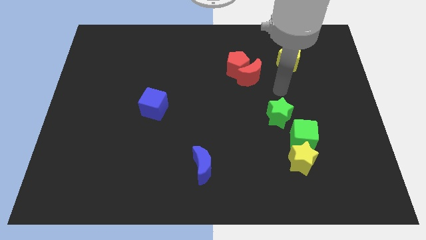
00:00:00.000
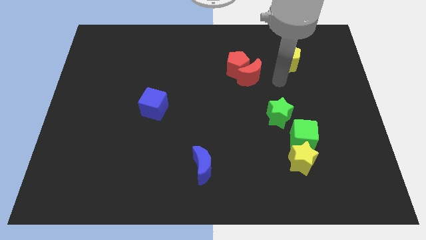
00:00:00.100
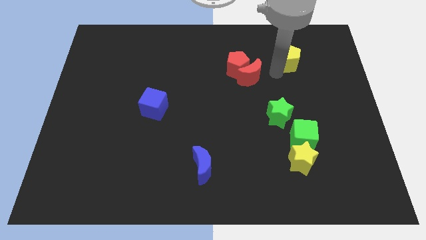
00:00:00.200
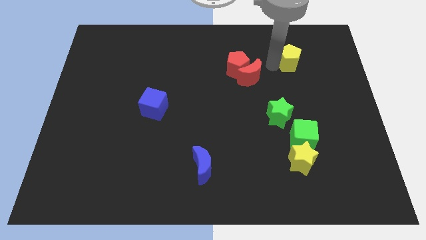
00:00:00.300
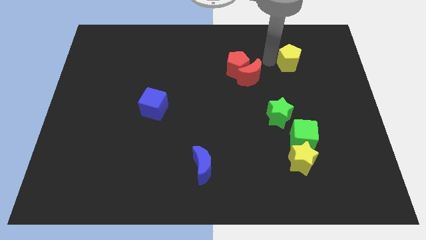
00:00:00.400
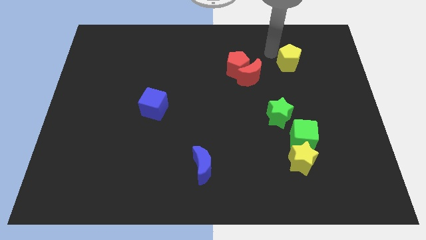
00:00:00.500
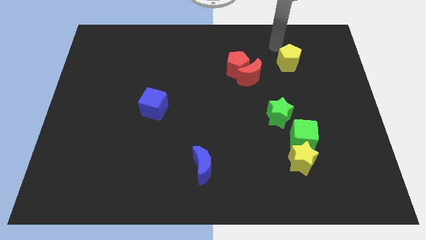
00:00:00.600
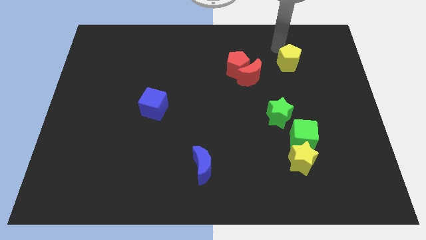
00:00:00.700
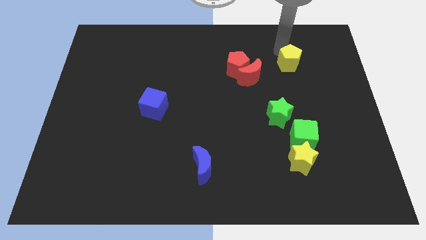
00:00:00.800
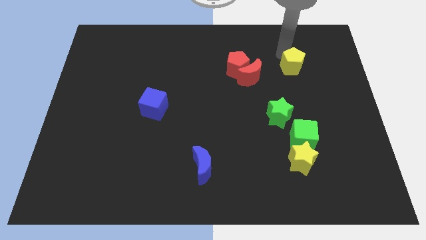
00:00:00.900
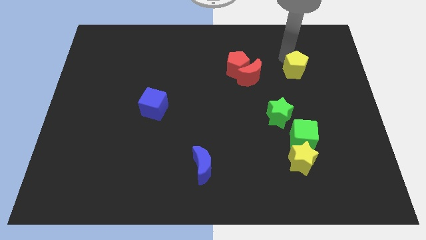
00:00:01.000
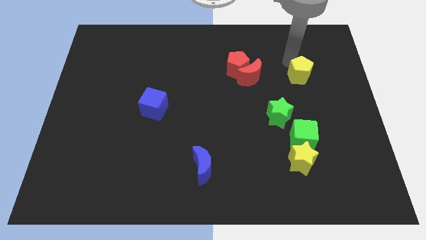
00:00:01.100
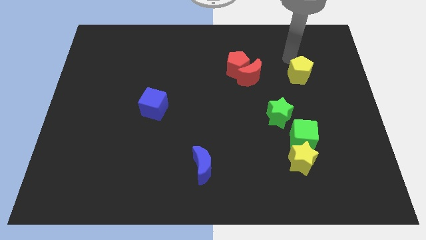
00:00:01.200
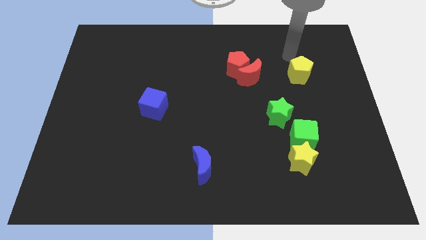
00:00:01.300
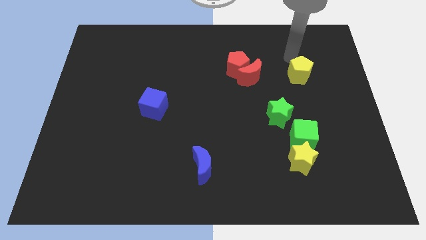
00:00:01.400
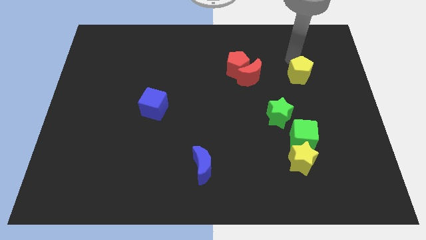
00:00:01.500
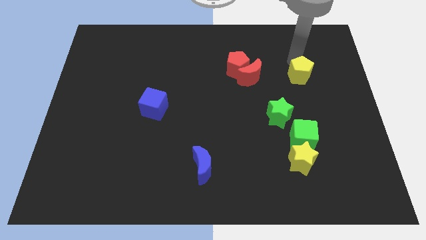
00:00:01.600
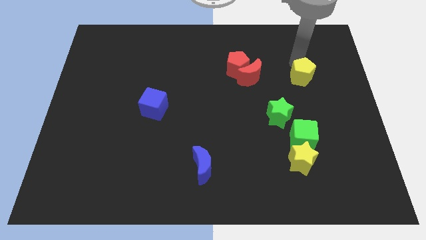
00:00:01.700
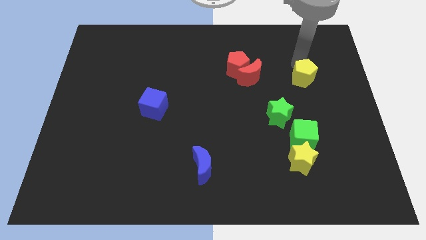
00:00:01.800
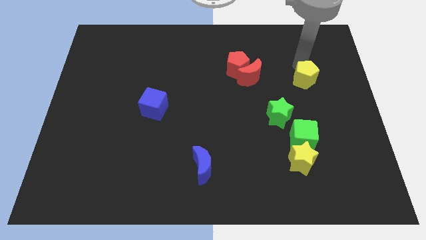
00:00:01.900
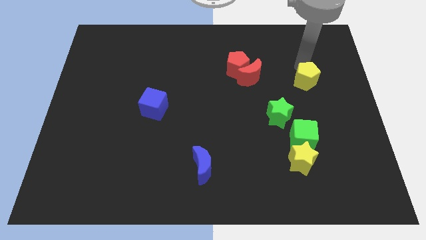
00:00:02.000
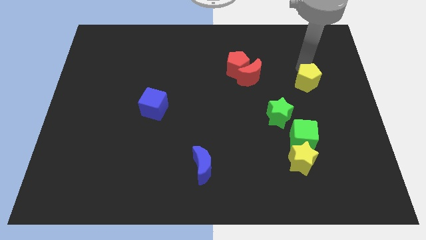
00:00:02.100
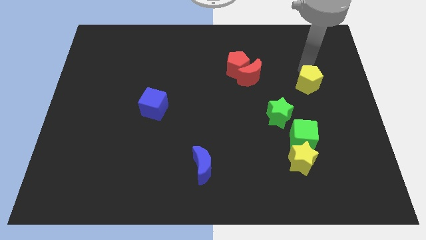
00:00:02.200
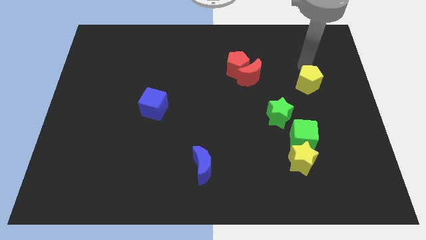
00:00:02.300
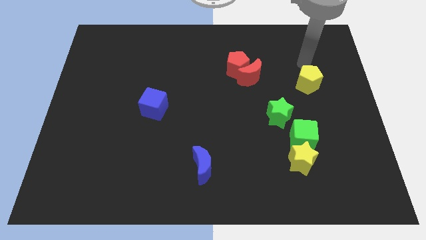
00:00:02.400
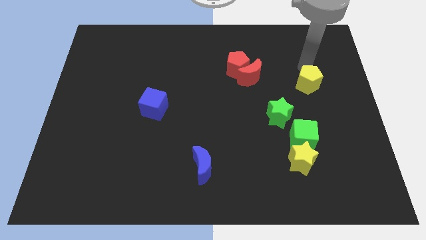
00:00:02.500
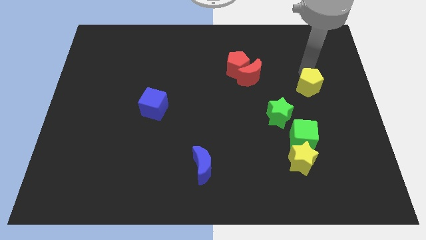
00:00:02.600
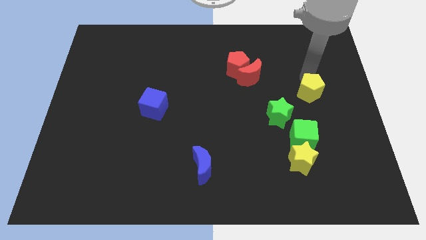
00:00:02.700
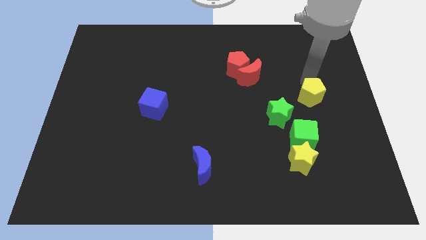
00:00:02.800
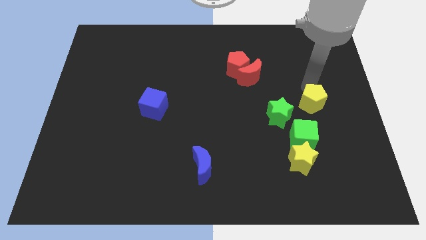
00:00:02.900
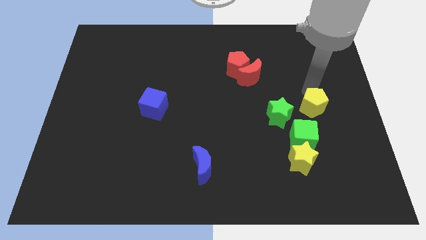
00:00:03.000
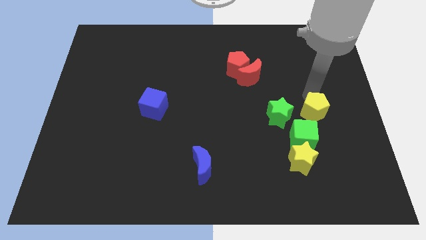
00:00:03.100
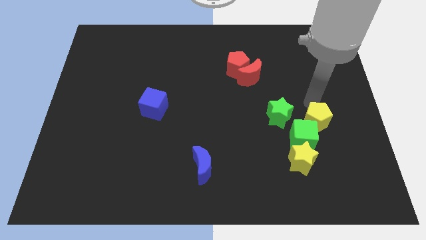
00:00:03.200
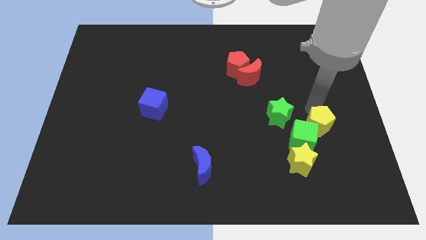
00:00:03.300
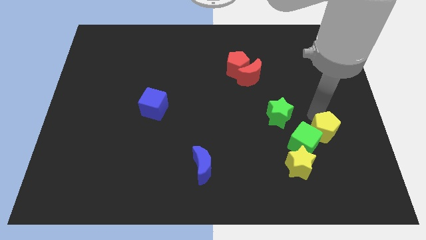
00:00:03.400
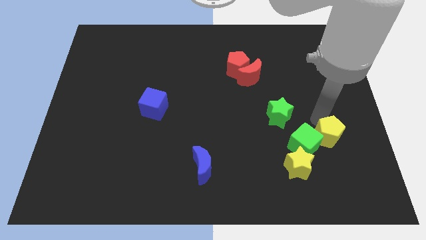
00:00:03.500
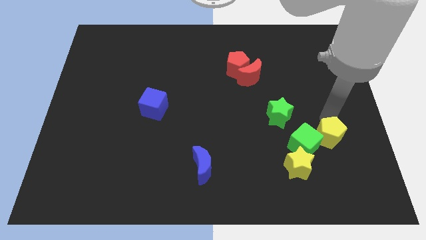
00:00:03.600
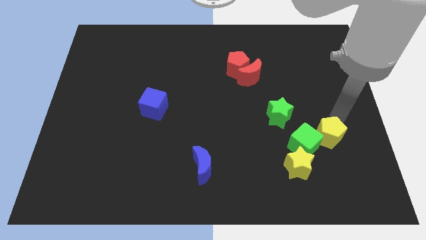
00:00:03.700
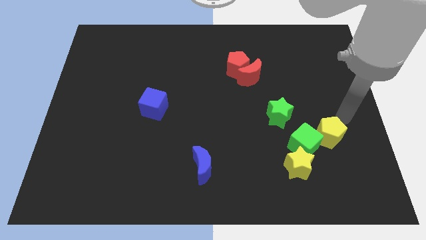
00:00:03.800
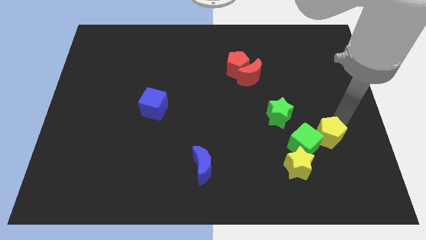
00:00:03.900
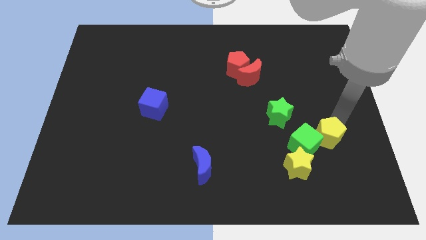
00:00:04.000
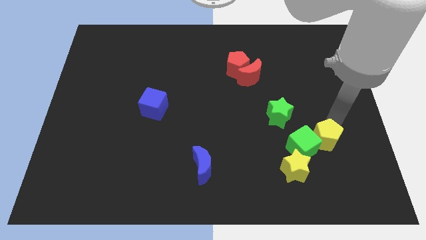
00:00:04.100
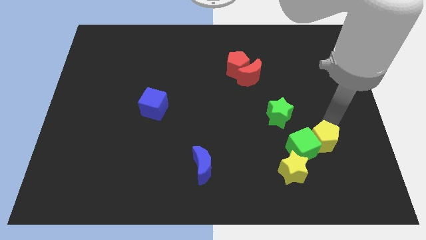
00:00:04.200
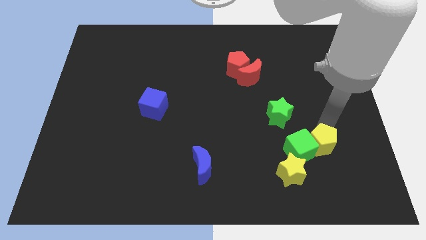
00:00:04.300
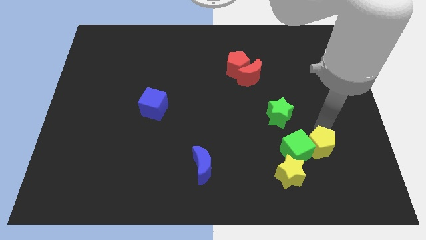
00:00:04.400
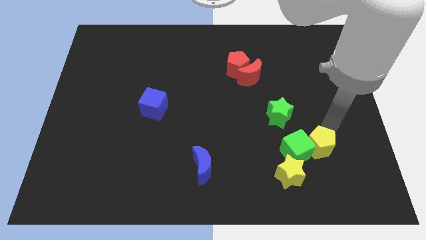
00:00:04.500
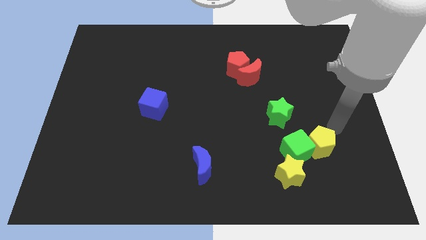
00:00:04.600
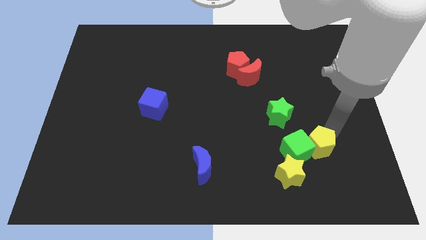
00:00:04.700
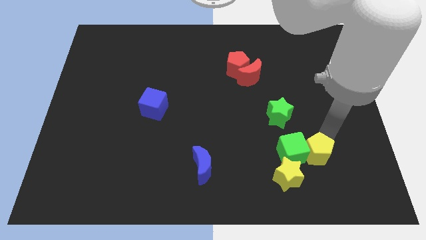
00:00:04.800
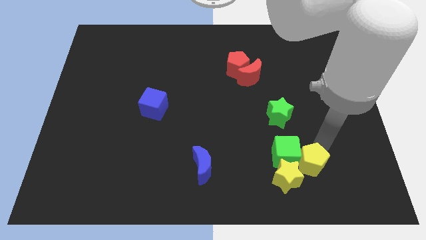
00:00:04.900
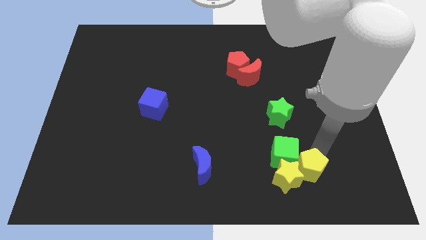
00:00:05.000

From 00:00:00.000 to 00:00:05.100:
move the yellow pentagon close to the yellow star

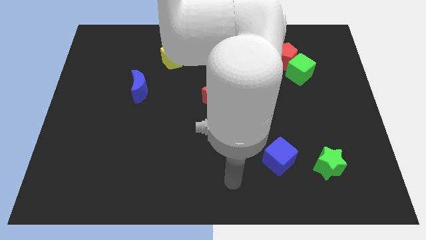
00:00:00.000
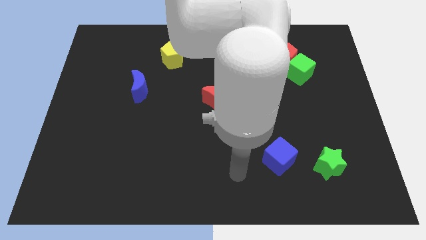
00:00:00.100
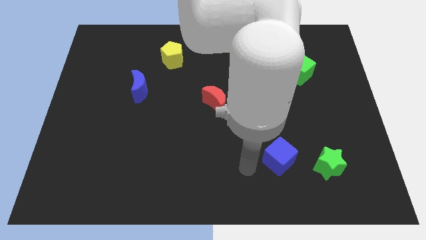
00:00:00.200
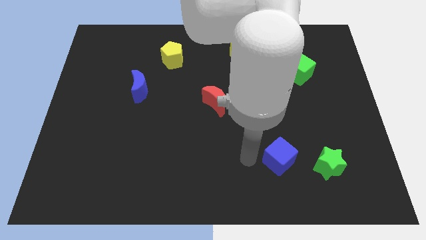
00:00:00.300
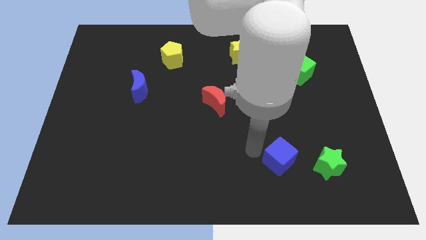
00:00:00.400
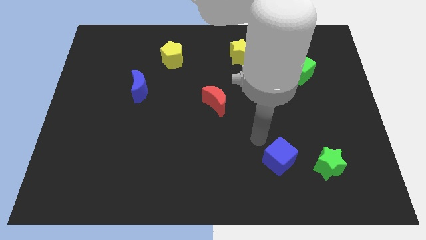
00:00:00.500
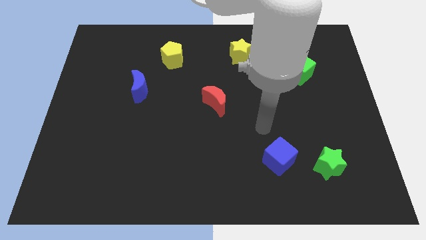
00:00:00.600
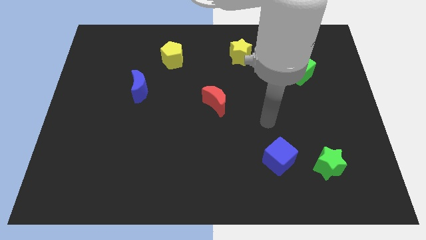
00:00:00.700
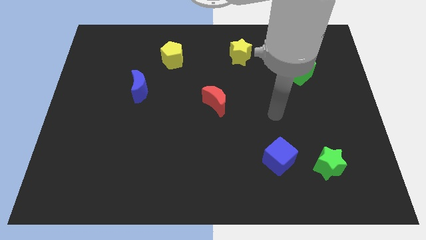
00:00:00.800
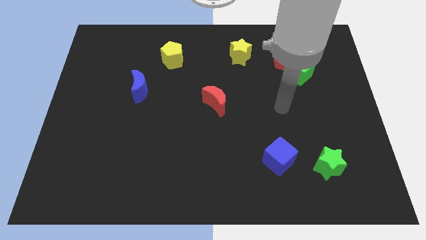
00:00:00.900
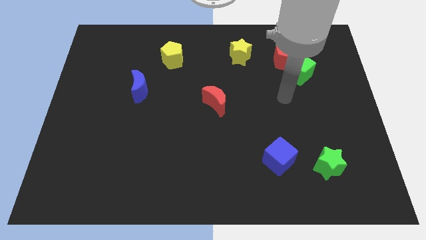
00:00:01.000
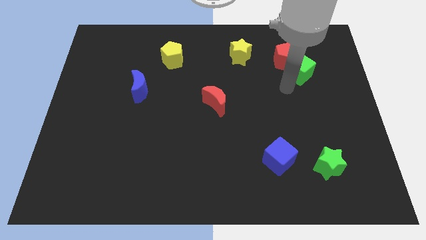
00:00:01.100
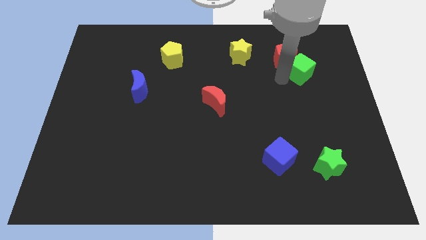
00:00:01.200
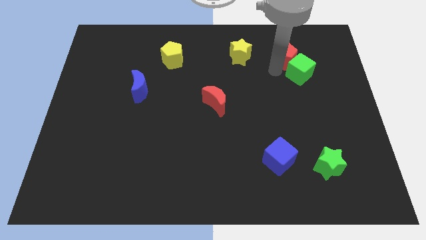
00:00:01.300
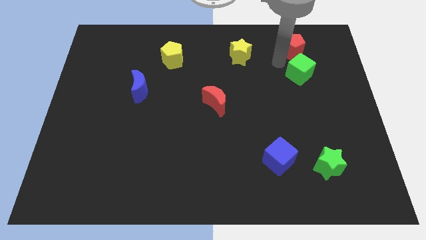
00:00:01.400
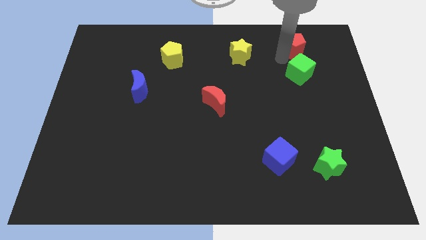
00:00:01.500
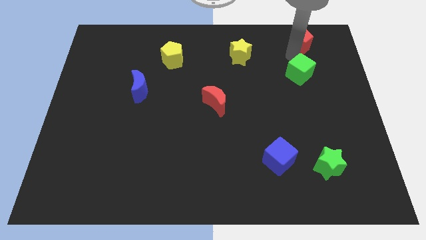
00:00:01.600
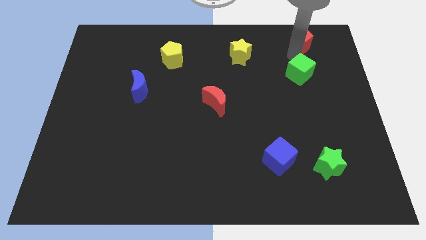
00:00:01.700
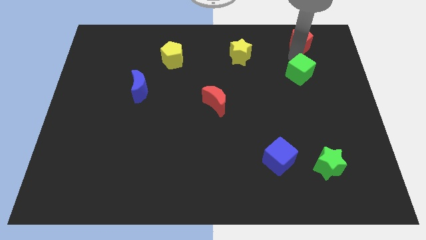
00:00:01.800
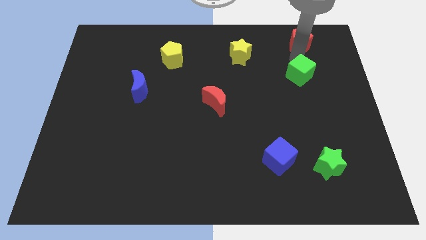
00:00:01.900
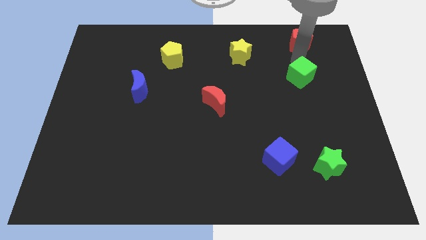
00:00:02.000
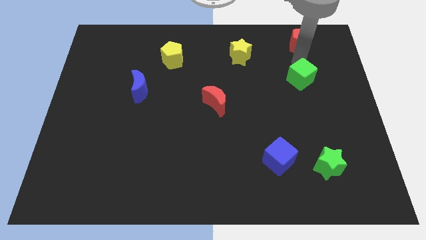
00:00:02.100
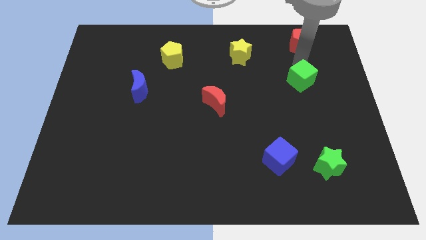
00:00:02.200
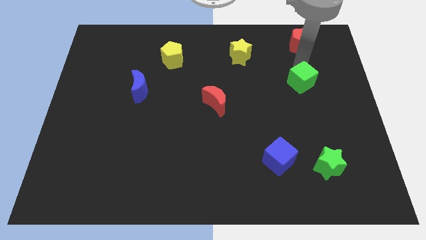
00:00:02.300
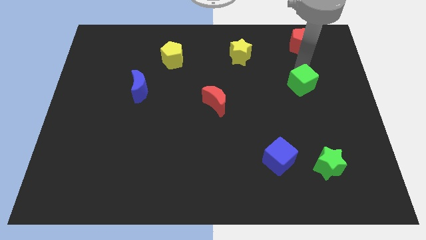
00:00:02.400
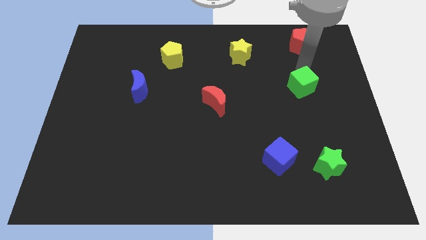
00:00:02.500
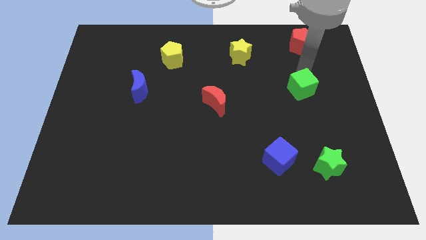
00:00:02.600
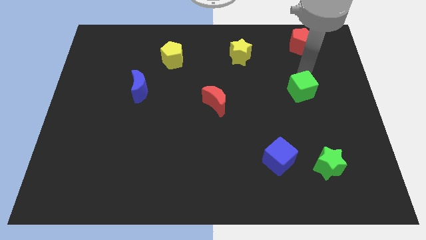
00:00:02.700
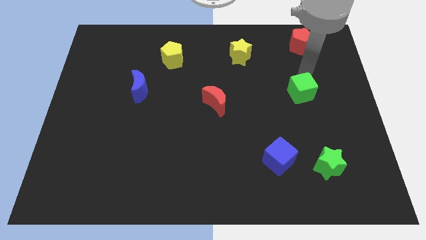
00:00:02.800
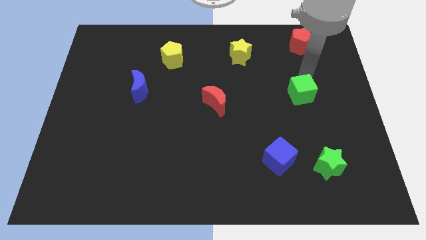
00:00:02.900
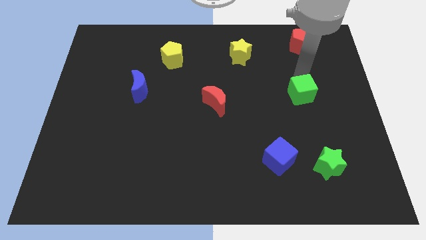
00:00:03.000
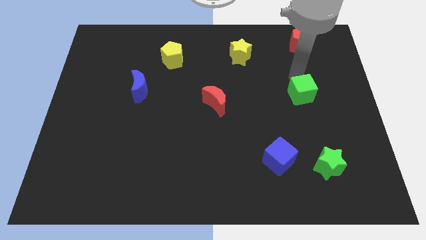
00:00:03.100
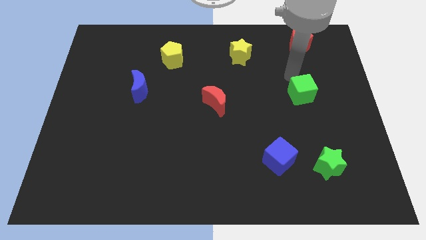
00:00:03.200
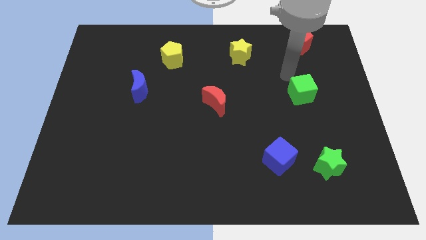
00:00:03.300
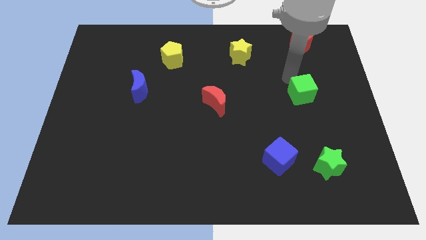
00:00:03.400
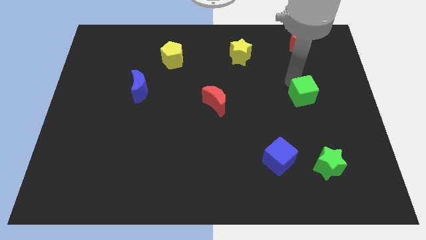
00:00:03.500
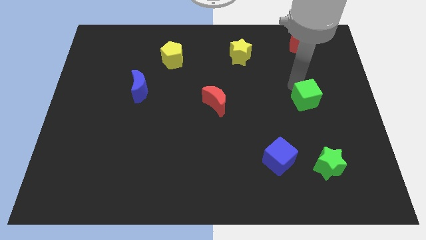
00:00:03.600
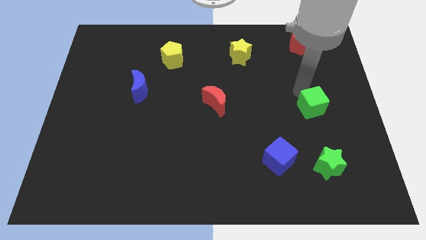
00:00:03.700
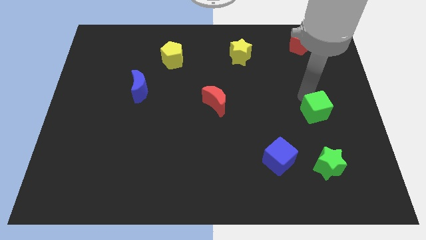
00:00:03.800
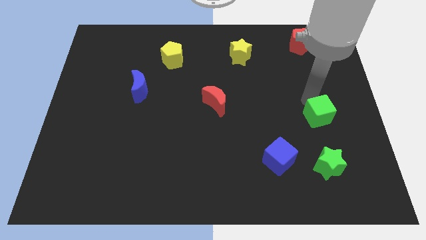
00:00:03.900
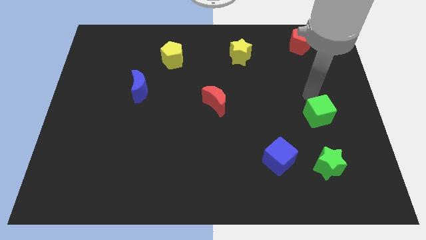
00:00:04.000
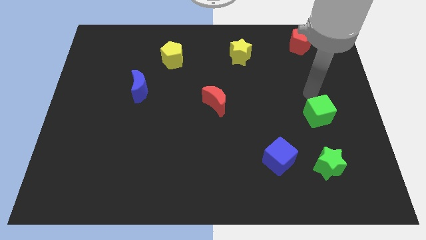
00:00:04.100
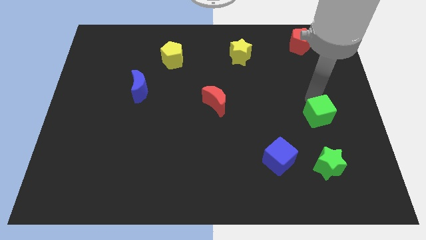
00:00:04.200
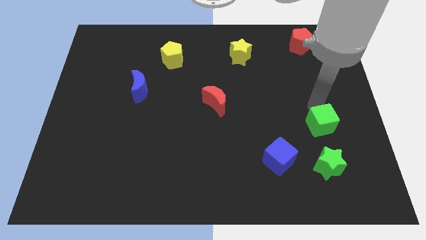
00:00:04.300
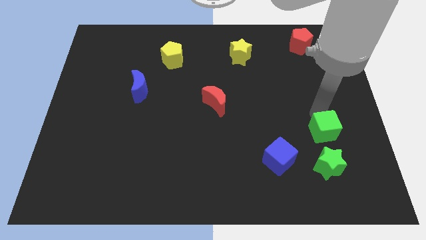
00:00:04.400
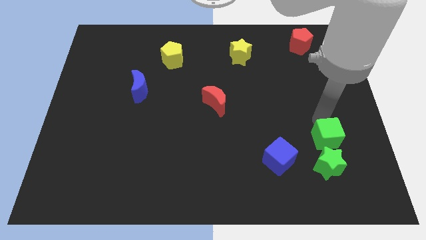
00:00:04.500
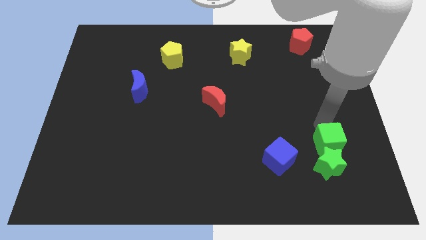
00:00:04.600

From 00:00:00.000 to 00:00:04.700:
move the green cube close to the green star
